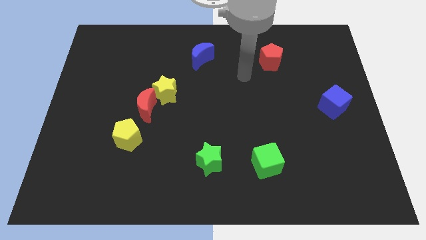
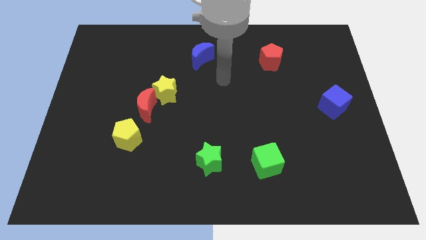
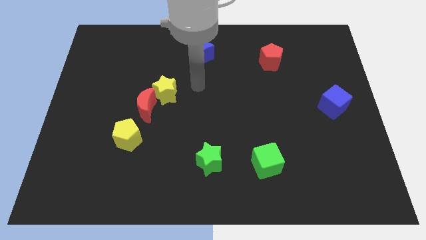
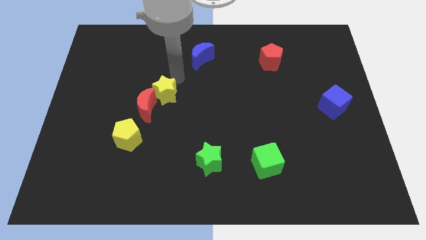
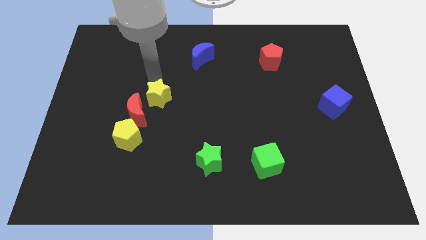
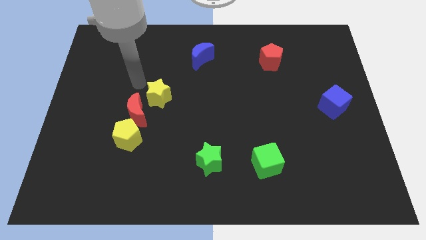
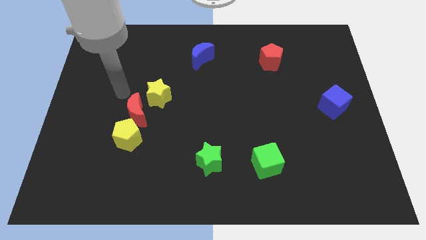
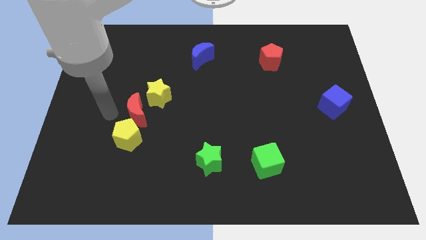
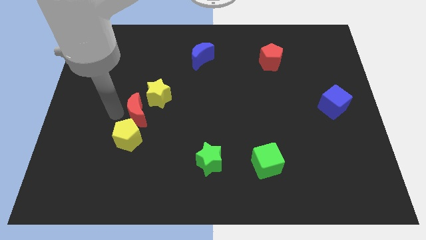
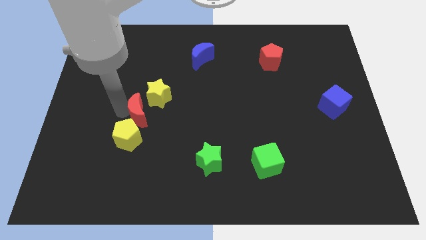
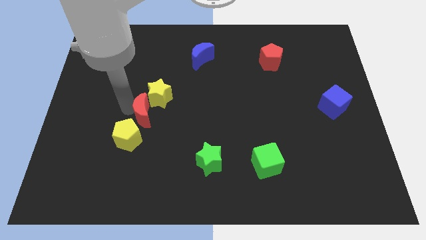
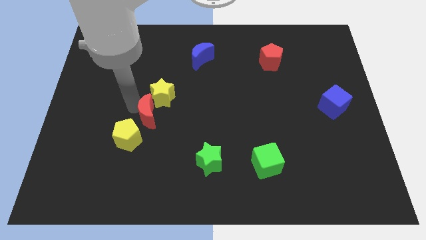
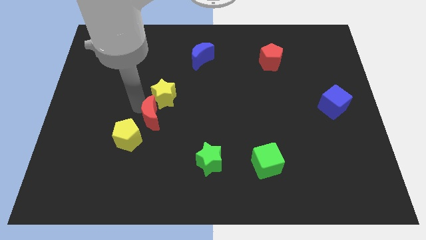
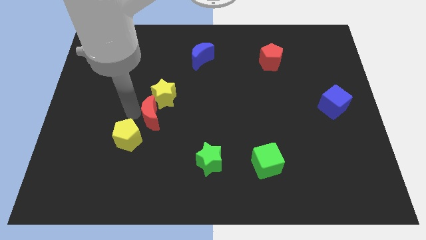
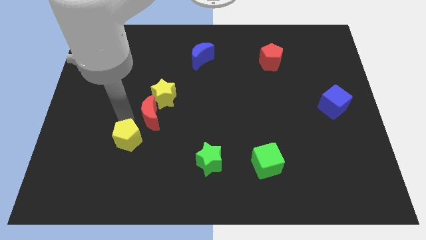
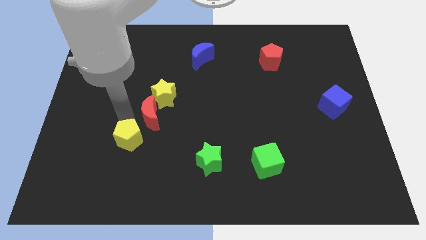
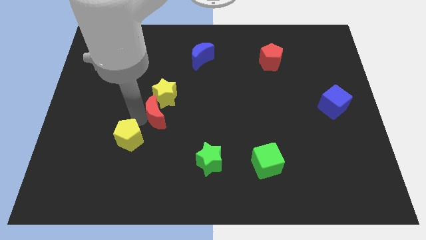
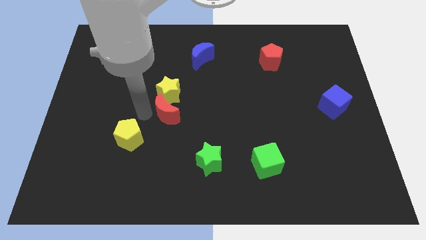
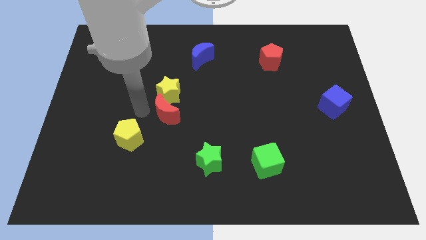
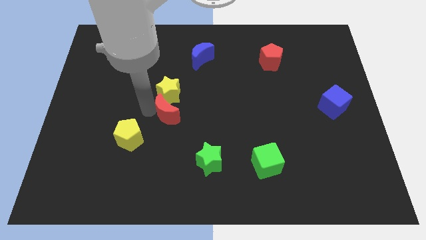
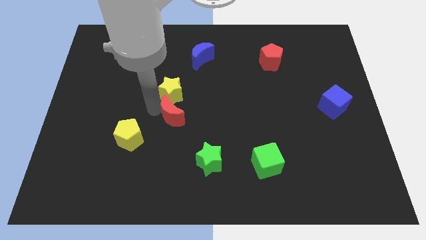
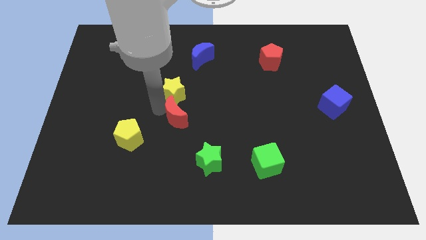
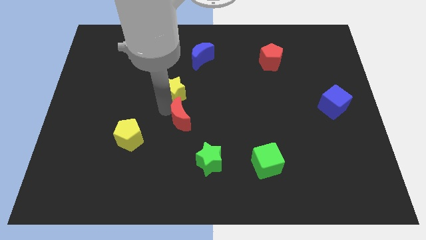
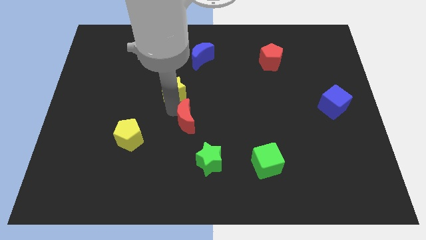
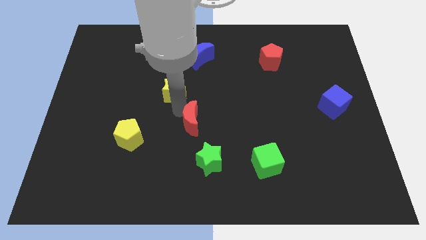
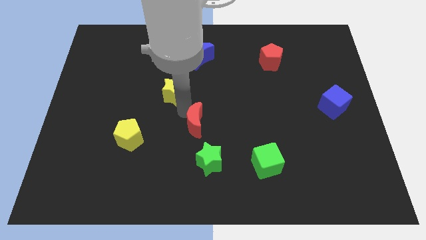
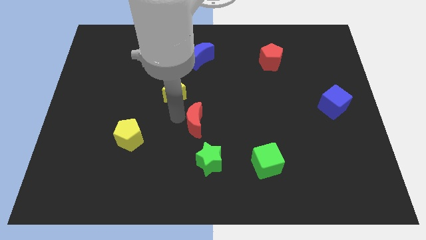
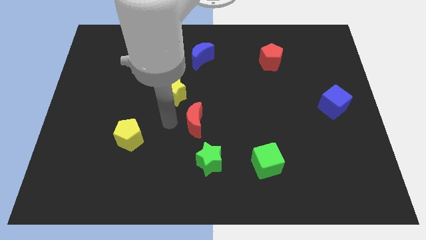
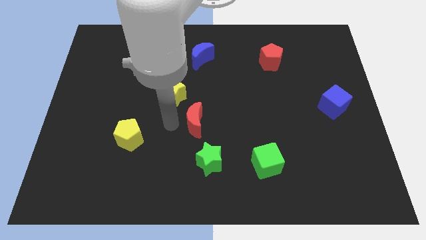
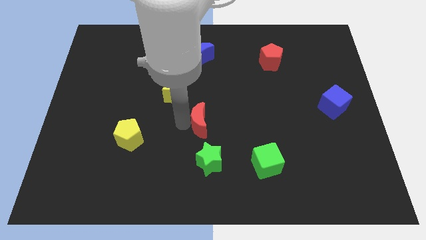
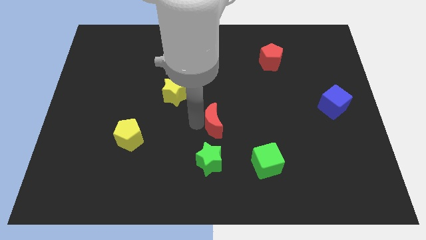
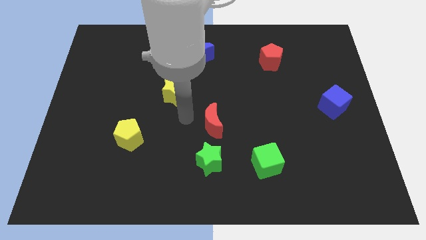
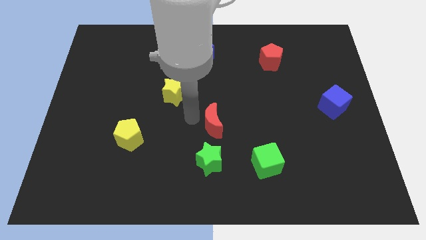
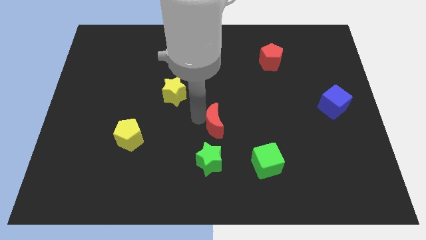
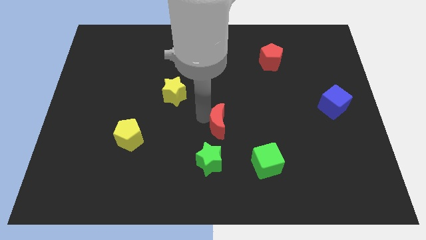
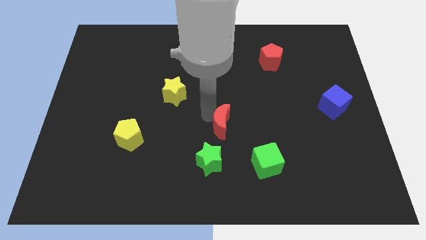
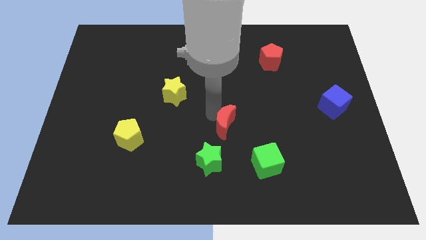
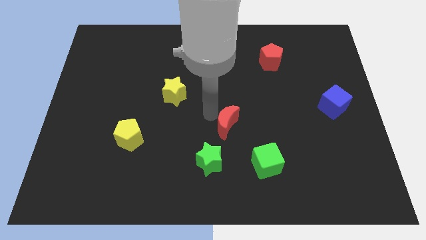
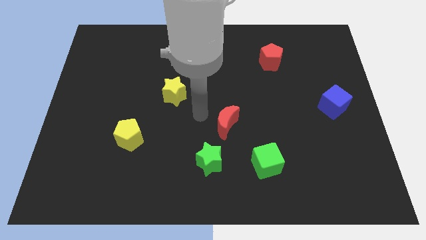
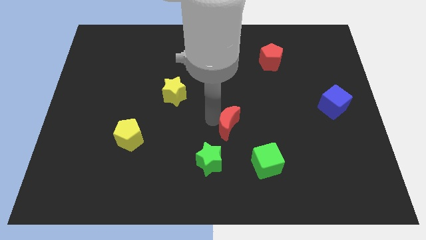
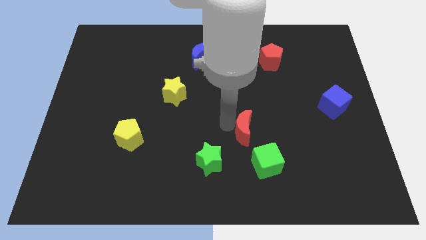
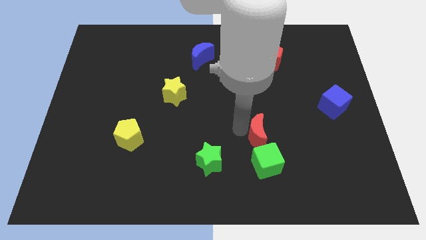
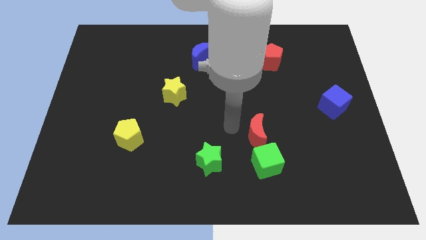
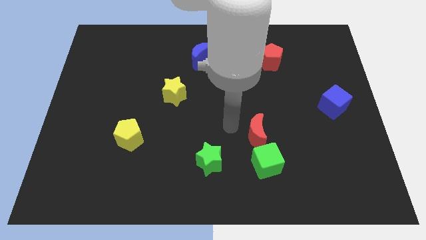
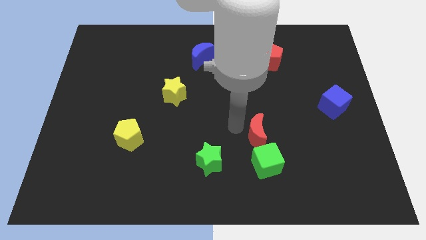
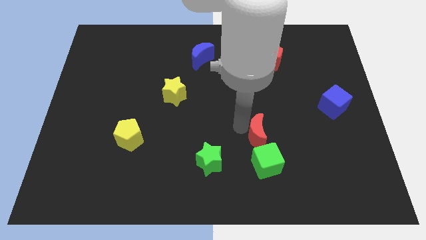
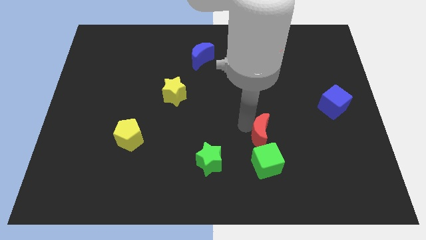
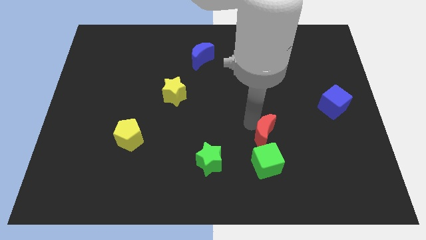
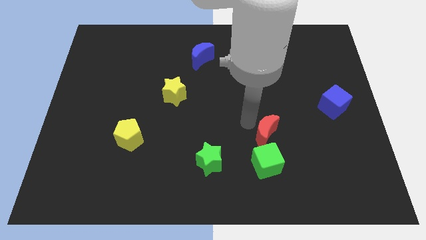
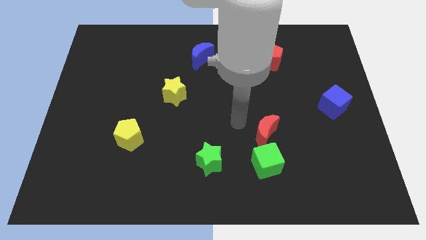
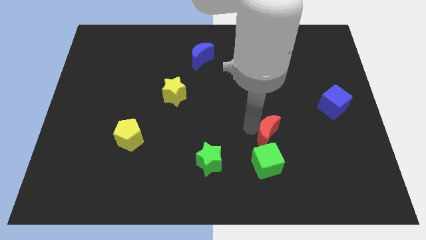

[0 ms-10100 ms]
slide the red moon to the top right side of the green cube
